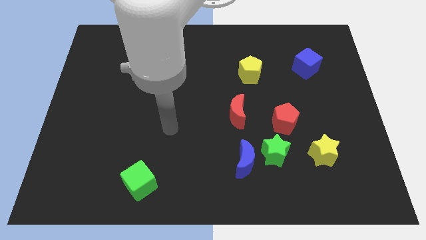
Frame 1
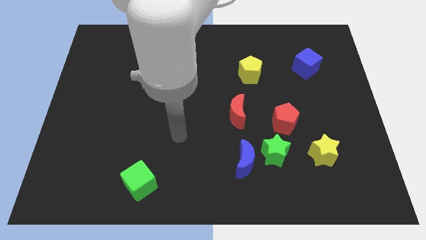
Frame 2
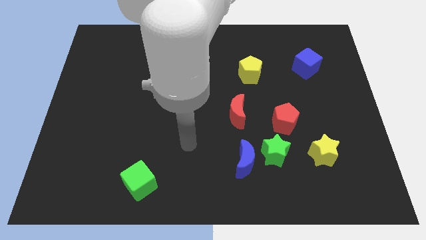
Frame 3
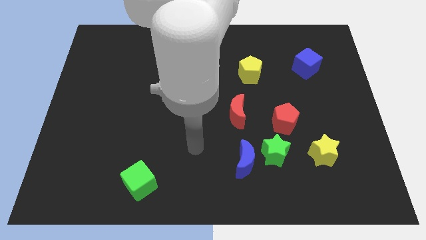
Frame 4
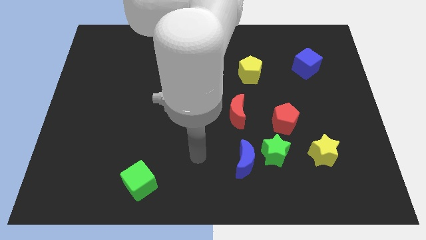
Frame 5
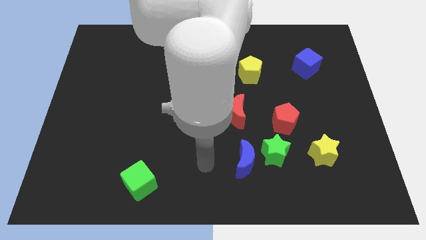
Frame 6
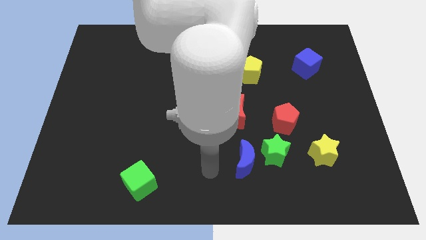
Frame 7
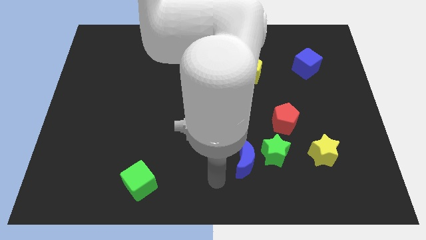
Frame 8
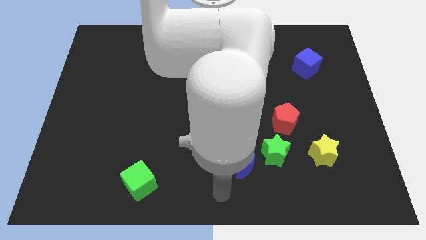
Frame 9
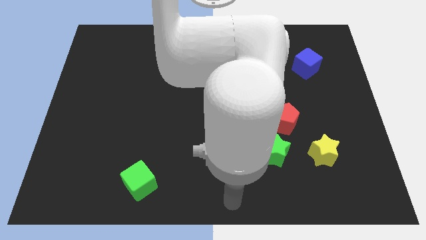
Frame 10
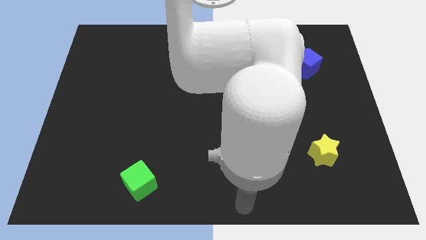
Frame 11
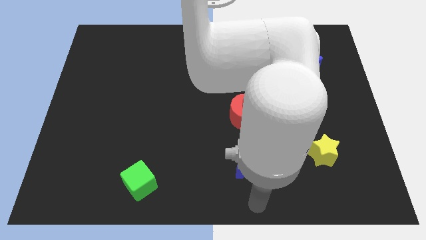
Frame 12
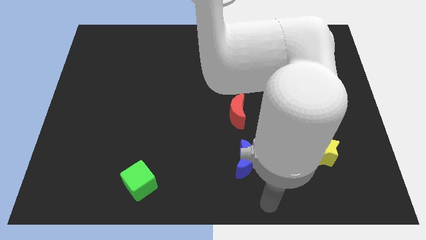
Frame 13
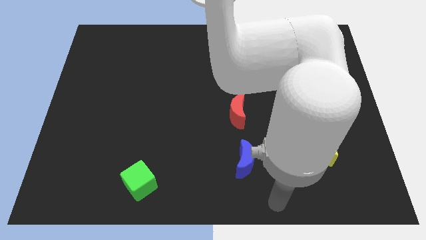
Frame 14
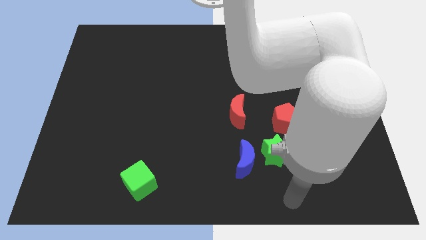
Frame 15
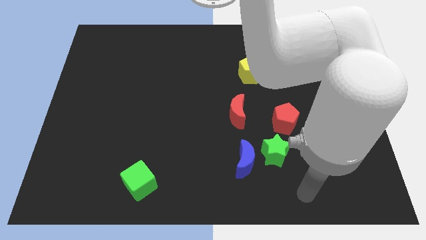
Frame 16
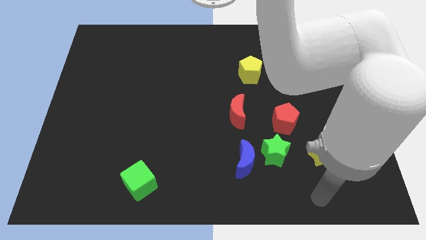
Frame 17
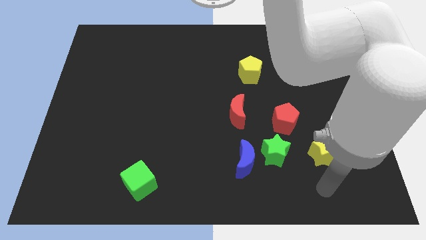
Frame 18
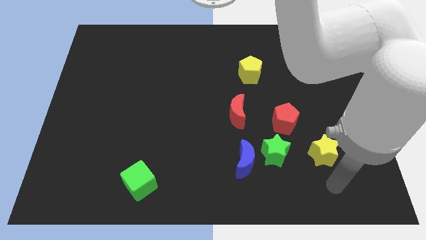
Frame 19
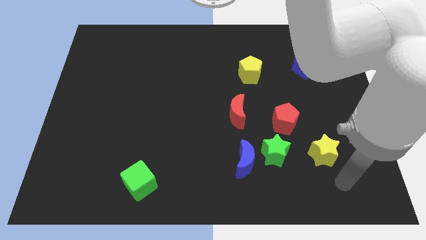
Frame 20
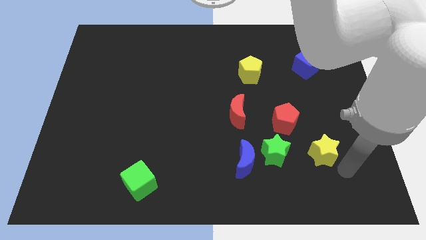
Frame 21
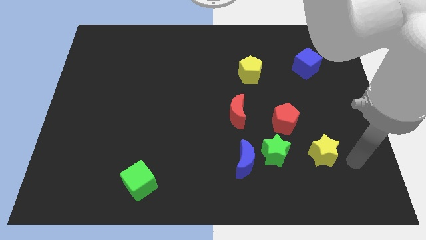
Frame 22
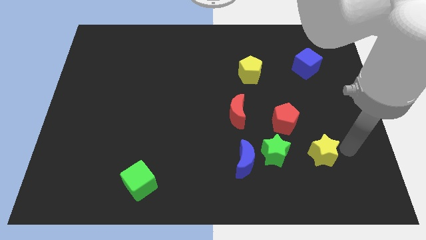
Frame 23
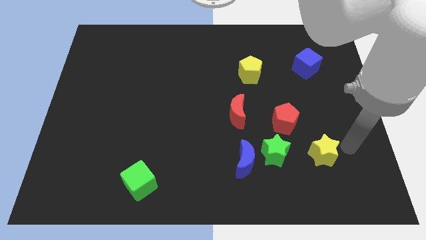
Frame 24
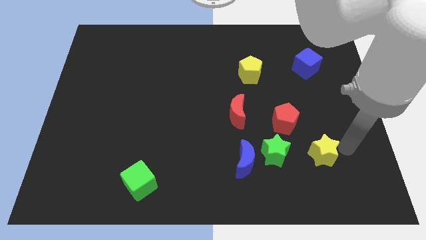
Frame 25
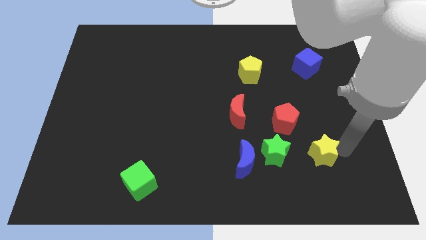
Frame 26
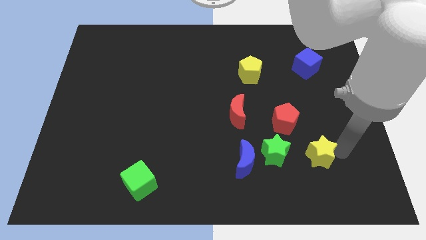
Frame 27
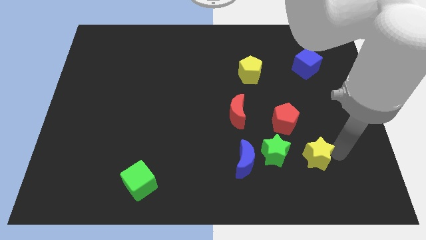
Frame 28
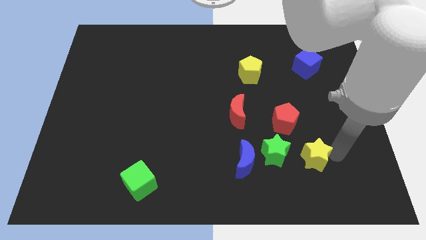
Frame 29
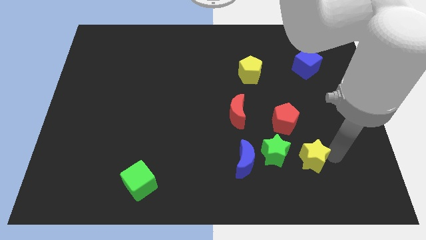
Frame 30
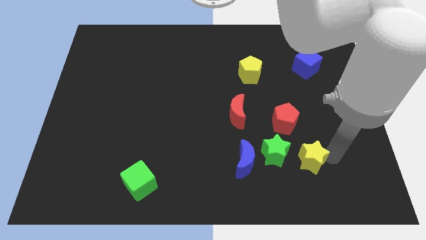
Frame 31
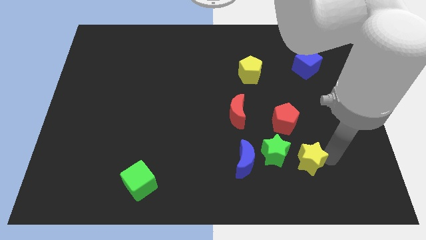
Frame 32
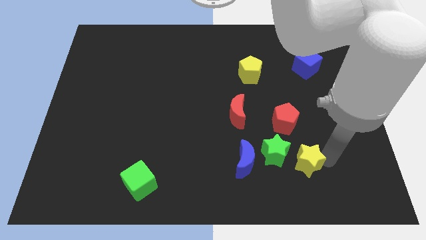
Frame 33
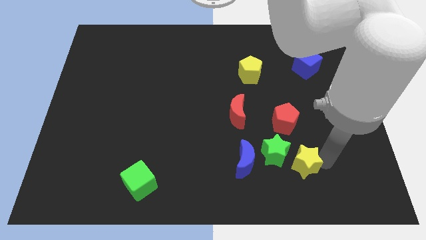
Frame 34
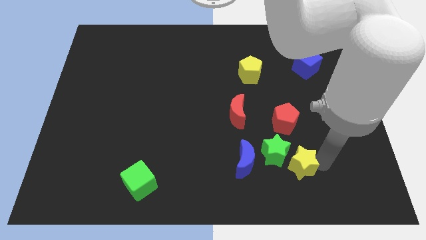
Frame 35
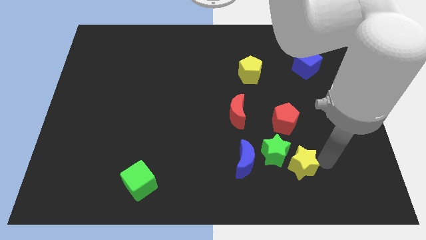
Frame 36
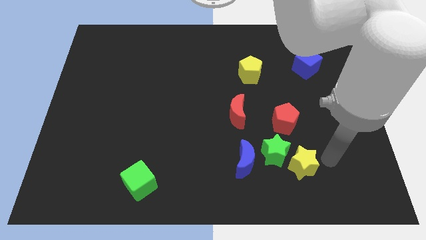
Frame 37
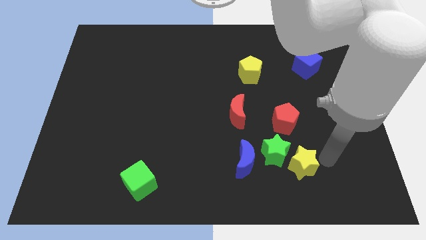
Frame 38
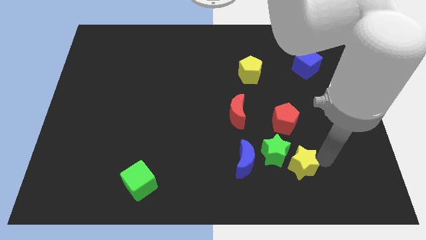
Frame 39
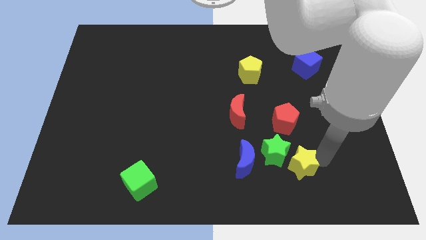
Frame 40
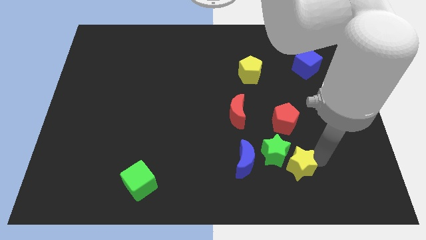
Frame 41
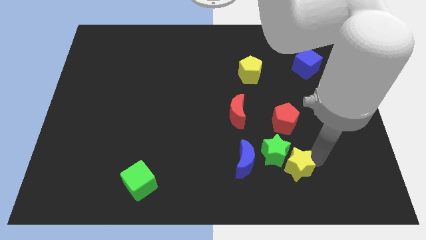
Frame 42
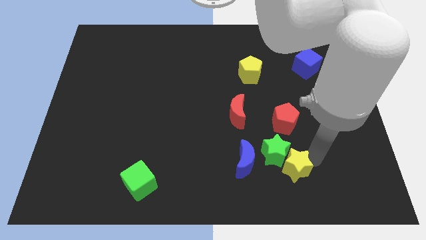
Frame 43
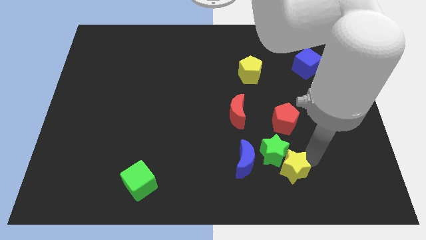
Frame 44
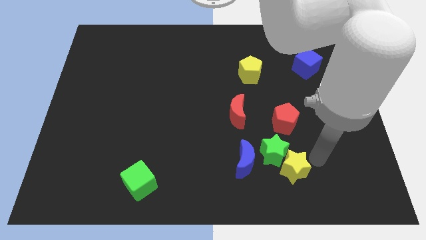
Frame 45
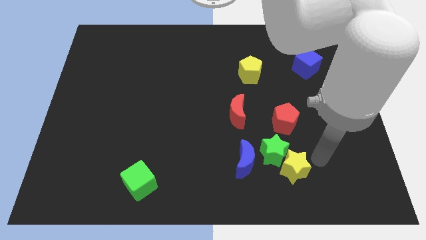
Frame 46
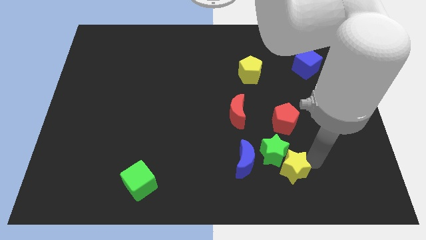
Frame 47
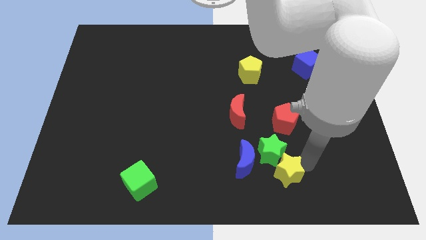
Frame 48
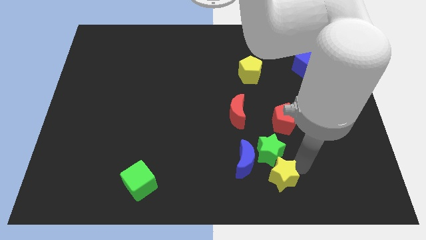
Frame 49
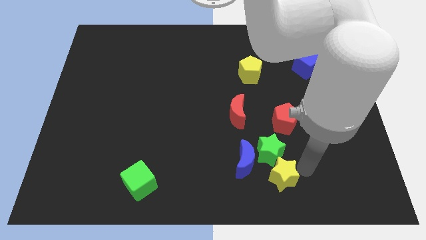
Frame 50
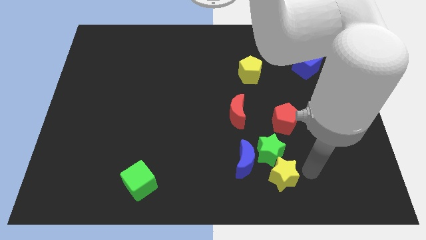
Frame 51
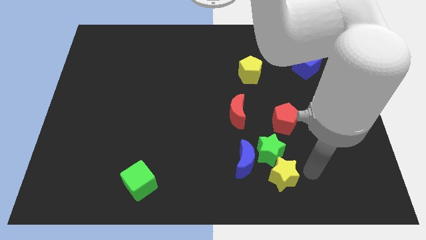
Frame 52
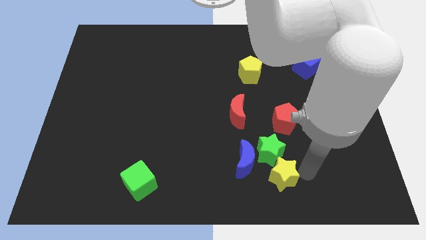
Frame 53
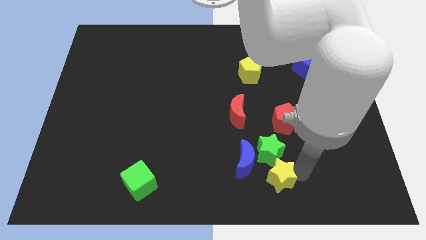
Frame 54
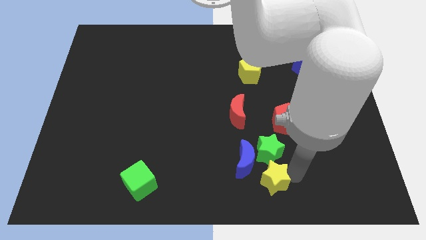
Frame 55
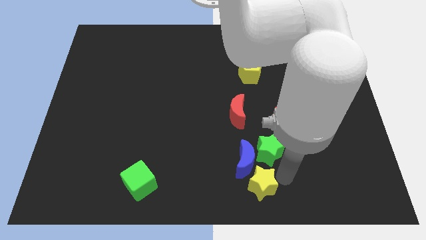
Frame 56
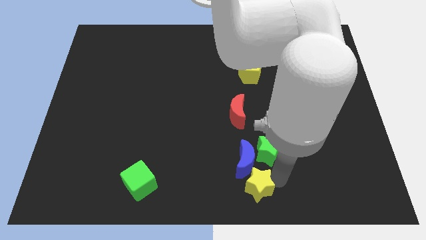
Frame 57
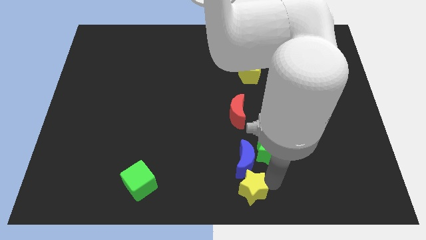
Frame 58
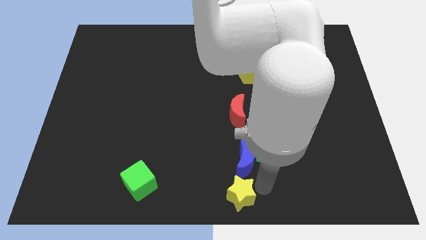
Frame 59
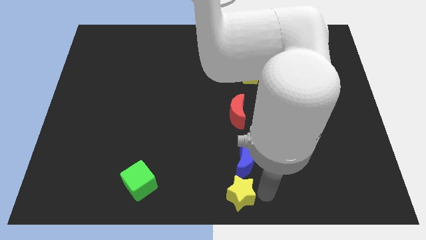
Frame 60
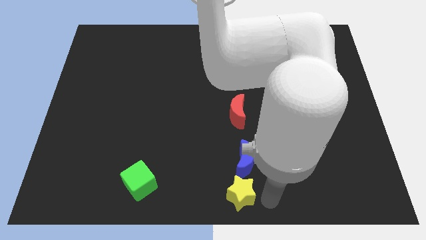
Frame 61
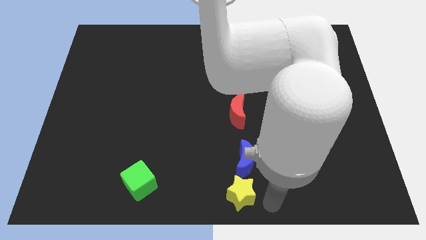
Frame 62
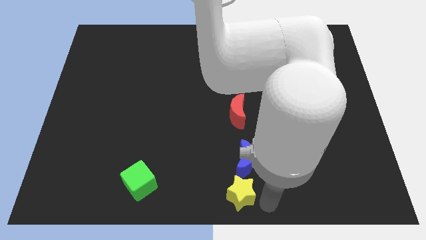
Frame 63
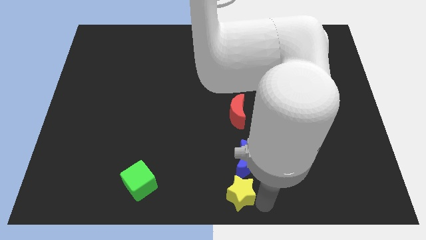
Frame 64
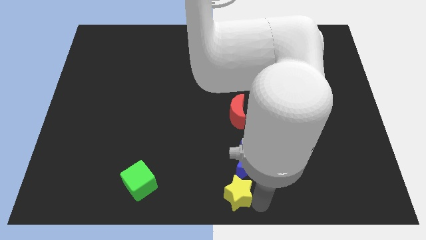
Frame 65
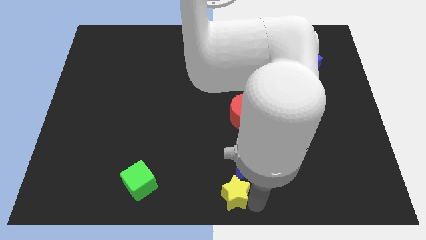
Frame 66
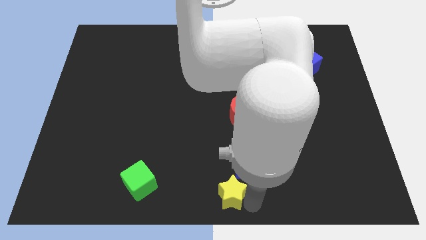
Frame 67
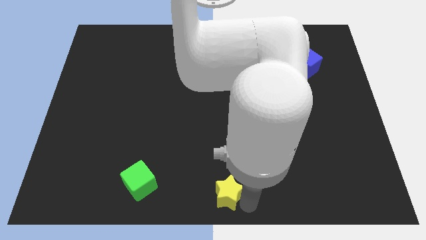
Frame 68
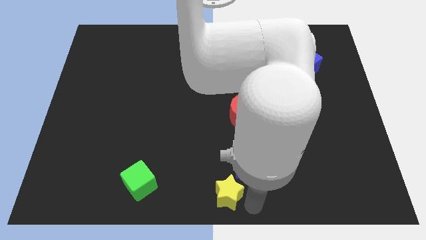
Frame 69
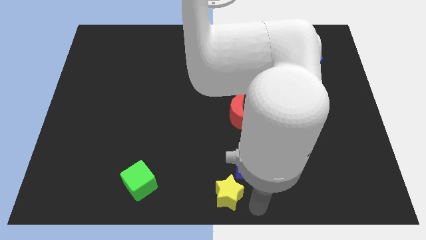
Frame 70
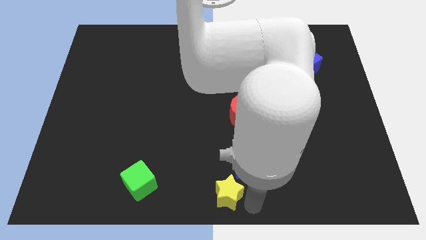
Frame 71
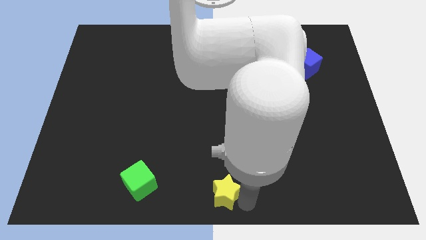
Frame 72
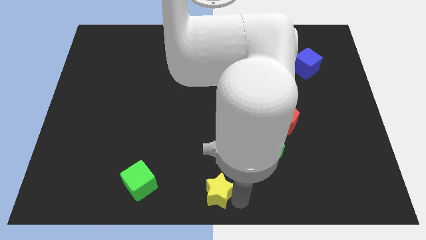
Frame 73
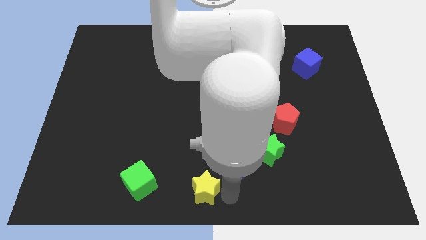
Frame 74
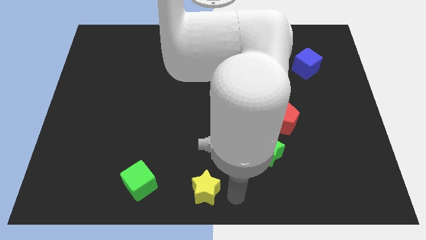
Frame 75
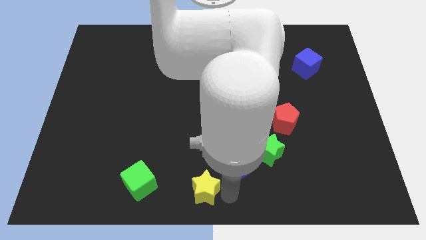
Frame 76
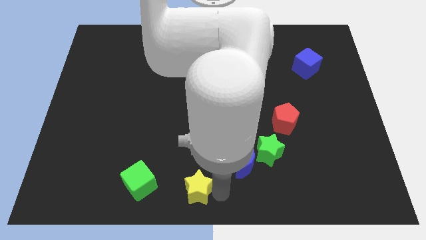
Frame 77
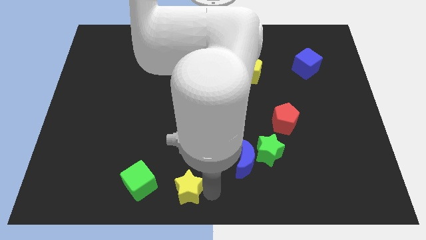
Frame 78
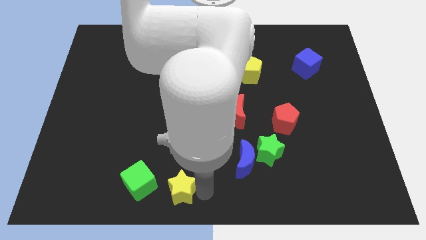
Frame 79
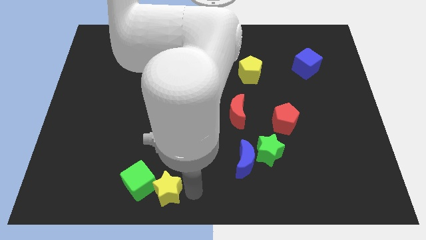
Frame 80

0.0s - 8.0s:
push the yellow star towards the green cube
